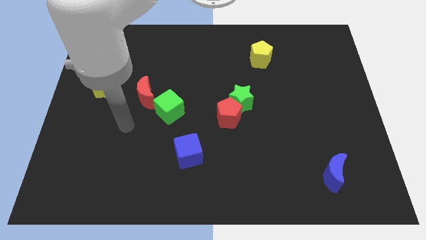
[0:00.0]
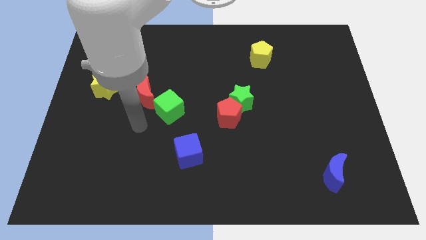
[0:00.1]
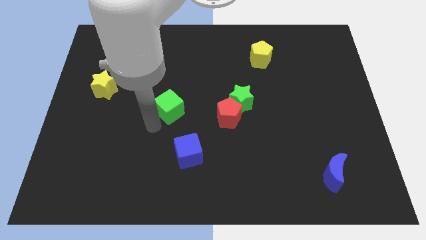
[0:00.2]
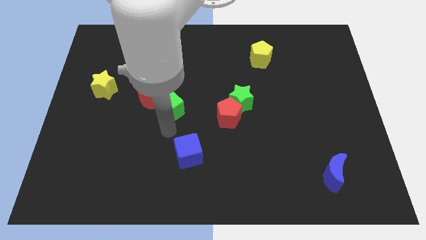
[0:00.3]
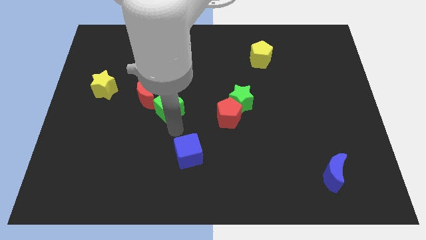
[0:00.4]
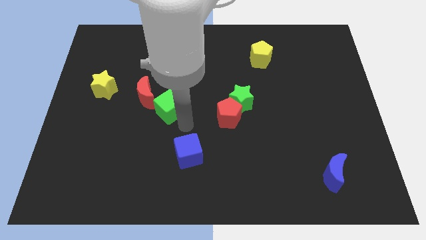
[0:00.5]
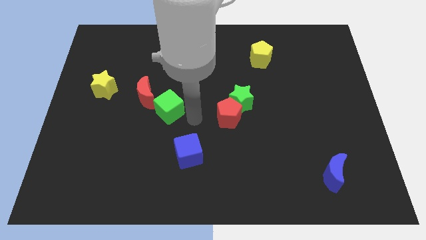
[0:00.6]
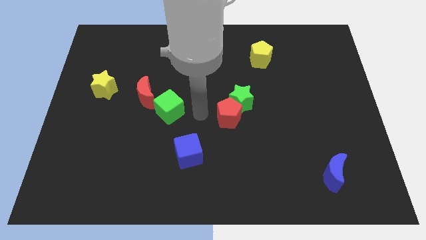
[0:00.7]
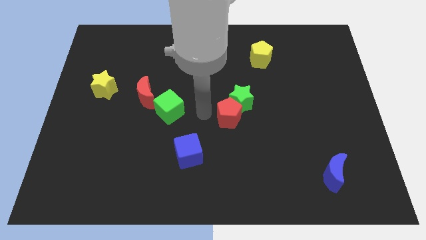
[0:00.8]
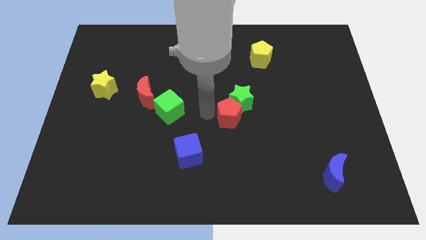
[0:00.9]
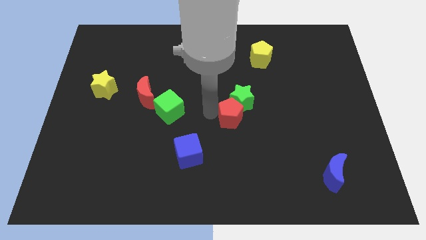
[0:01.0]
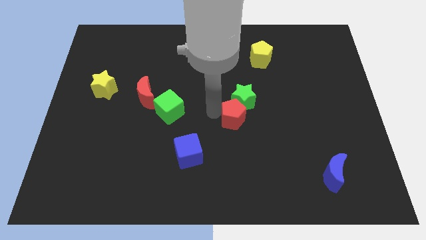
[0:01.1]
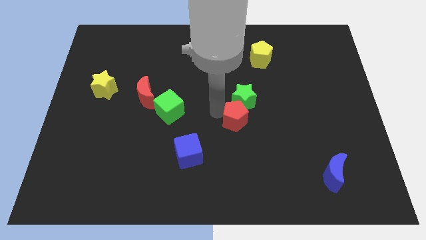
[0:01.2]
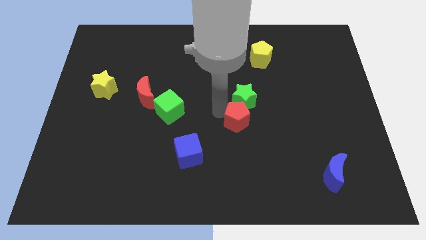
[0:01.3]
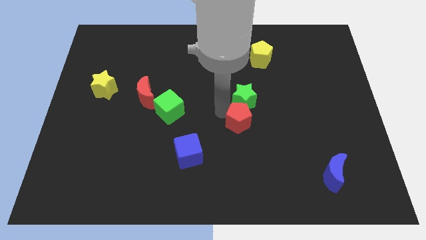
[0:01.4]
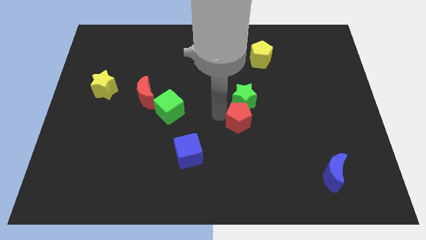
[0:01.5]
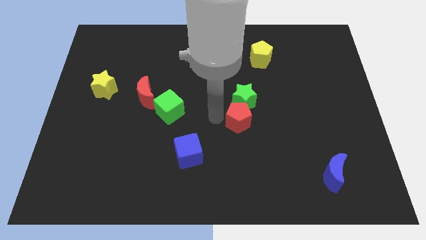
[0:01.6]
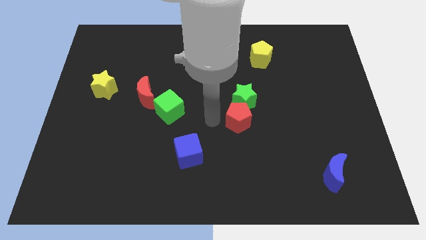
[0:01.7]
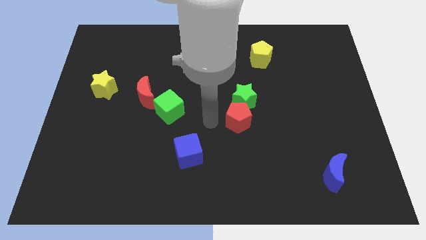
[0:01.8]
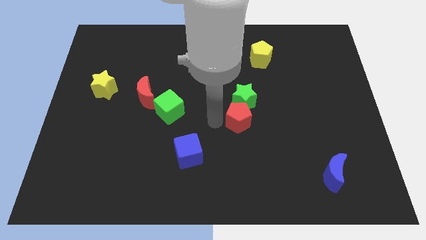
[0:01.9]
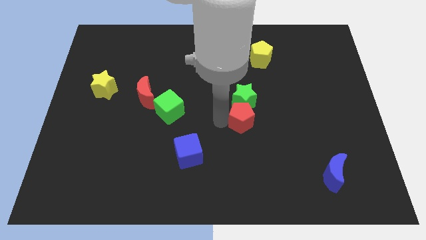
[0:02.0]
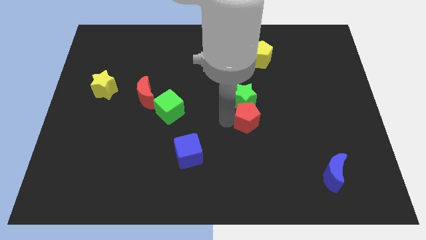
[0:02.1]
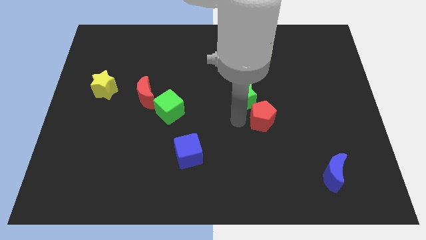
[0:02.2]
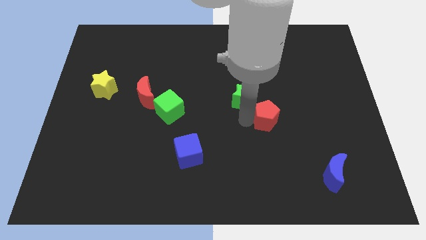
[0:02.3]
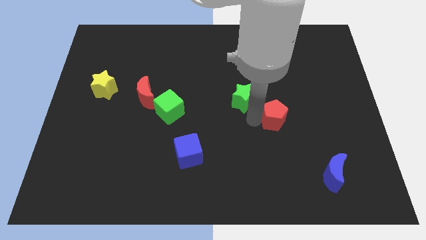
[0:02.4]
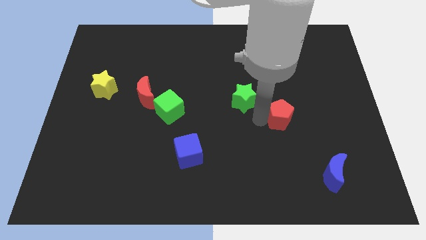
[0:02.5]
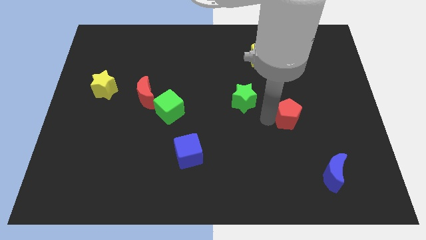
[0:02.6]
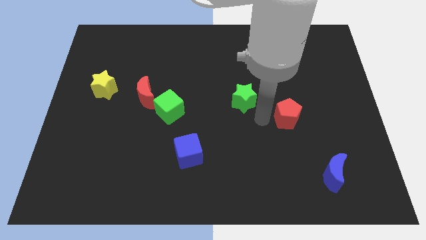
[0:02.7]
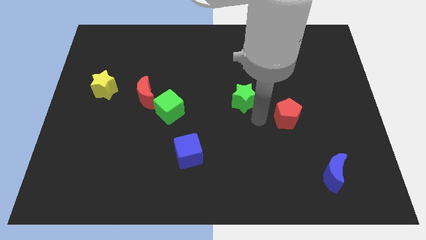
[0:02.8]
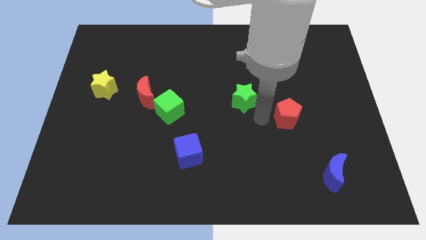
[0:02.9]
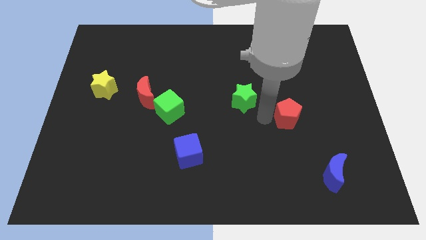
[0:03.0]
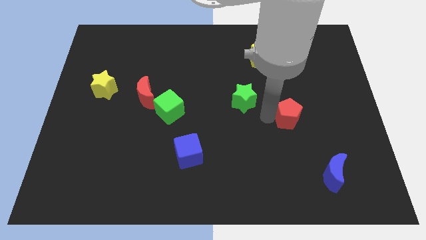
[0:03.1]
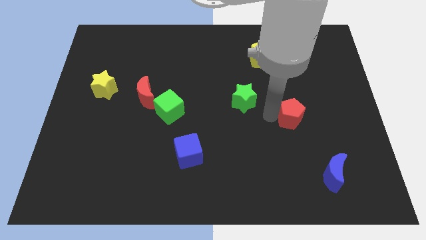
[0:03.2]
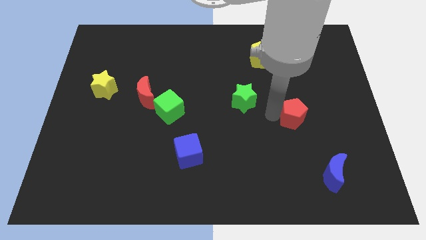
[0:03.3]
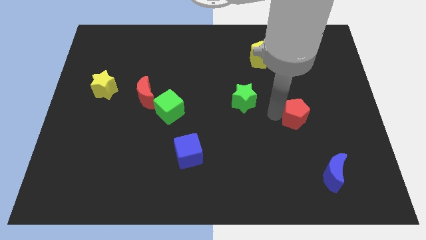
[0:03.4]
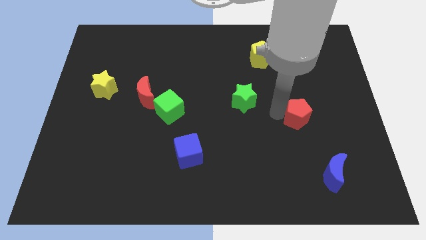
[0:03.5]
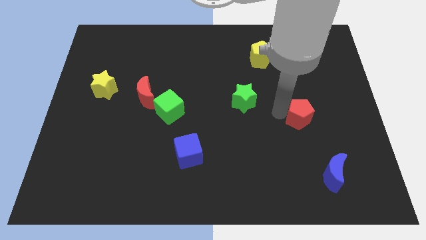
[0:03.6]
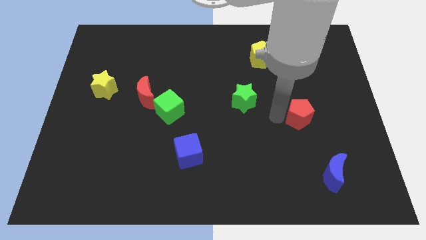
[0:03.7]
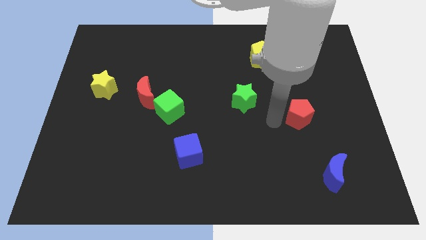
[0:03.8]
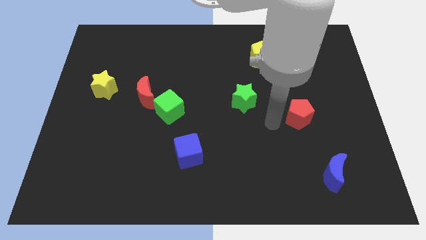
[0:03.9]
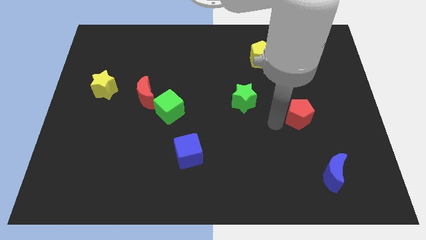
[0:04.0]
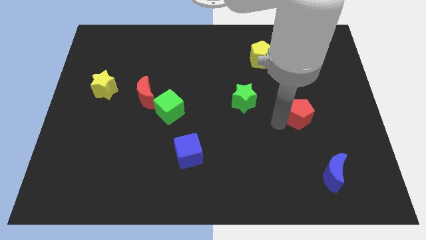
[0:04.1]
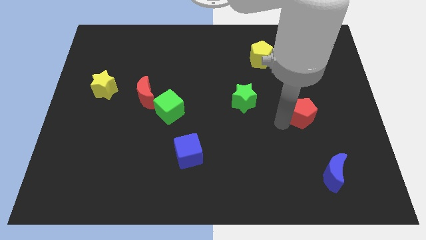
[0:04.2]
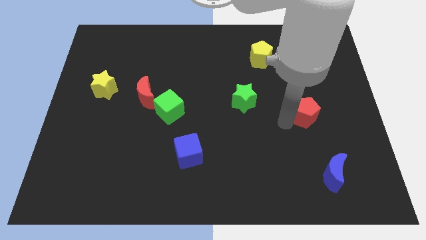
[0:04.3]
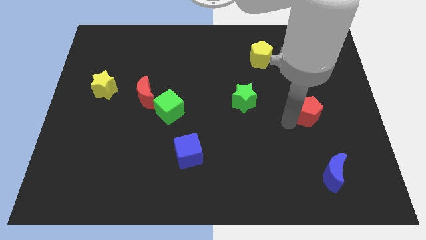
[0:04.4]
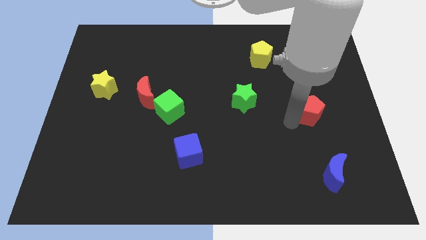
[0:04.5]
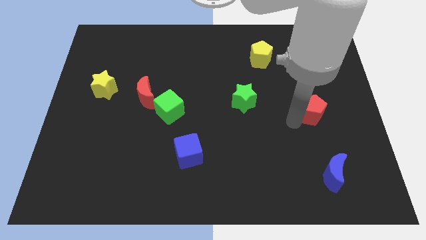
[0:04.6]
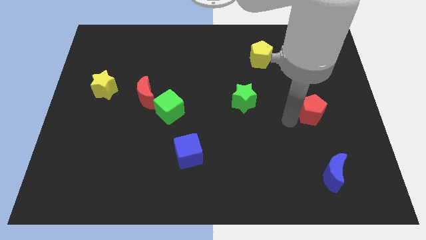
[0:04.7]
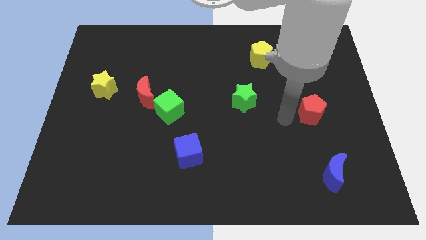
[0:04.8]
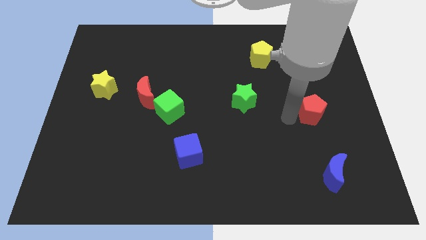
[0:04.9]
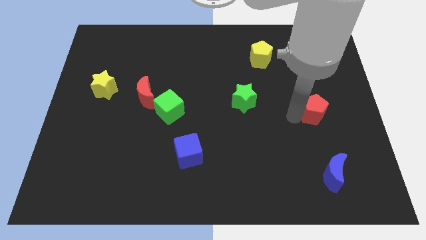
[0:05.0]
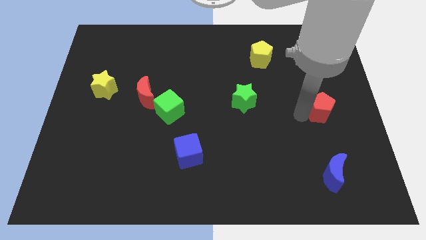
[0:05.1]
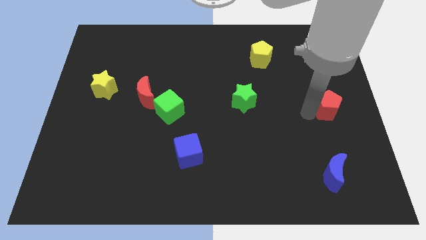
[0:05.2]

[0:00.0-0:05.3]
put the red pentagon to the right side
